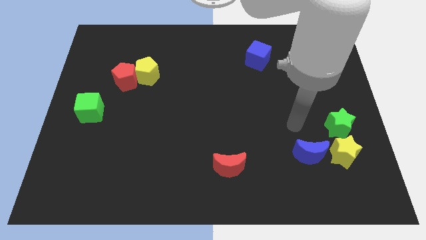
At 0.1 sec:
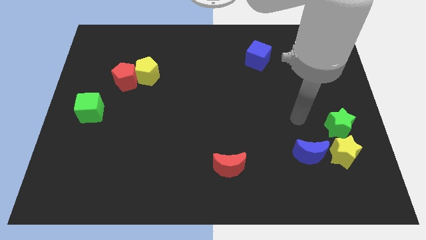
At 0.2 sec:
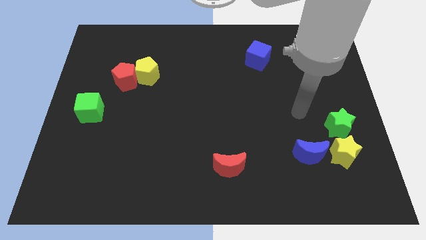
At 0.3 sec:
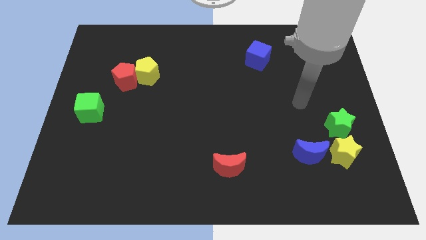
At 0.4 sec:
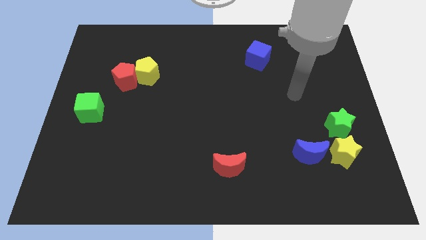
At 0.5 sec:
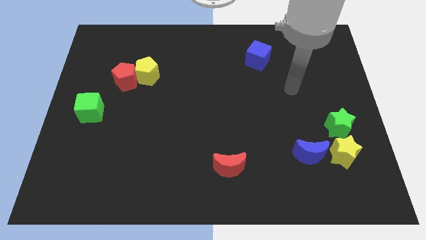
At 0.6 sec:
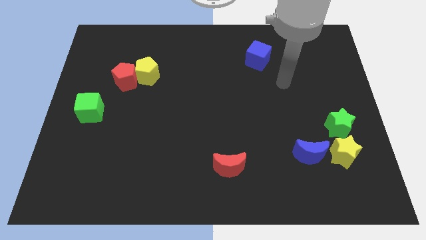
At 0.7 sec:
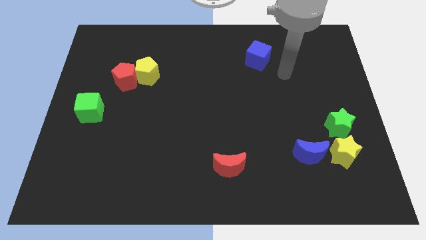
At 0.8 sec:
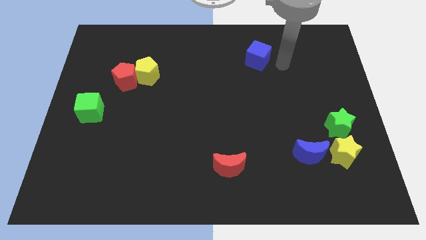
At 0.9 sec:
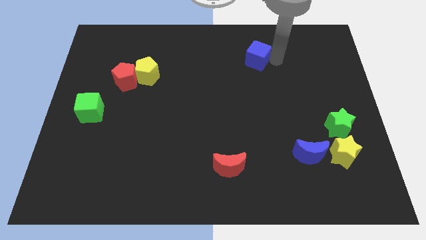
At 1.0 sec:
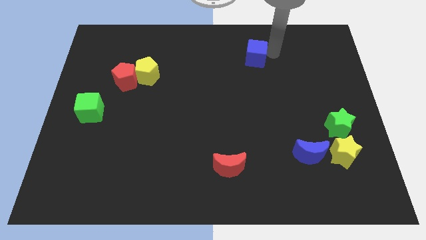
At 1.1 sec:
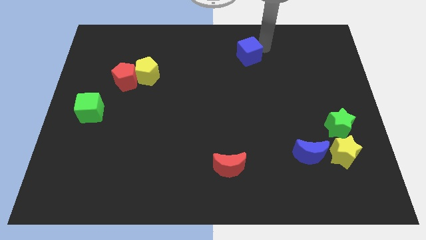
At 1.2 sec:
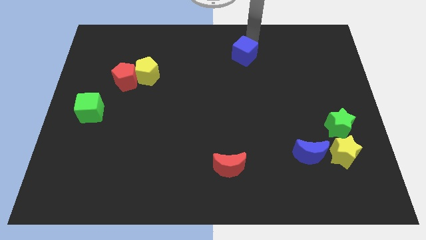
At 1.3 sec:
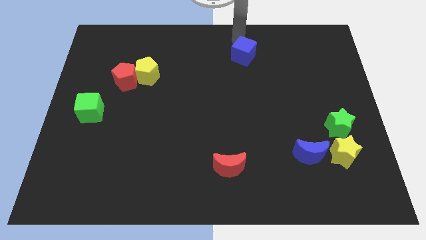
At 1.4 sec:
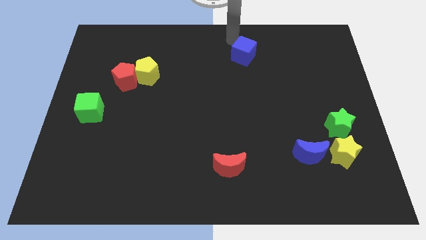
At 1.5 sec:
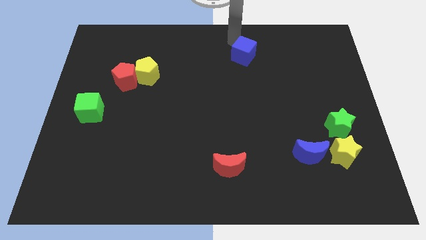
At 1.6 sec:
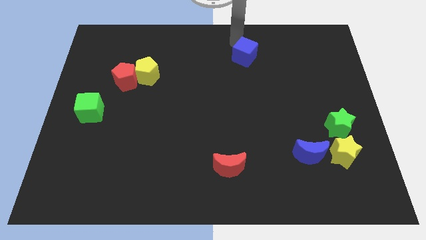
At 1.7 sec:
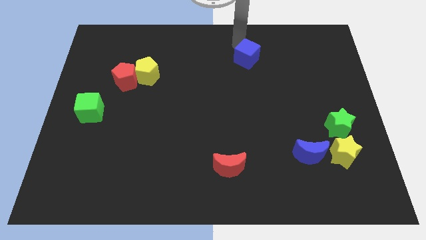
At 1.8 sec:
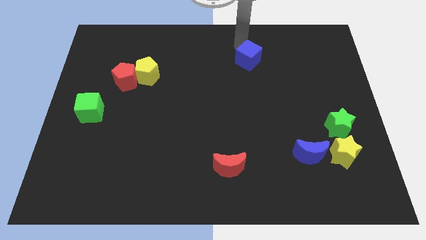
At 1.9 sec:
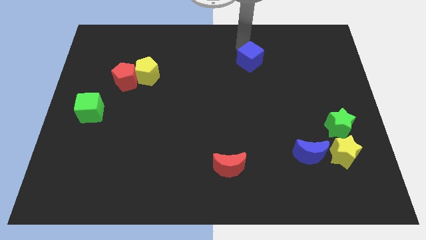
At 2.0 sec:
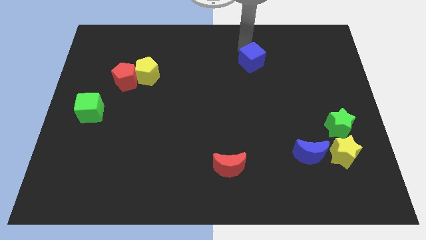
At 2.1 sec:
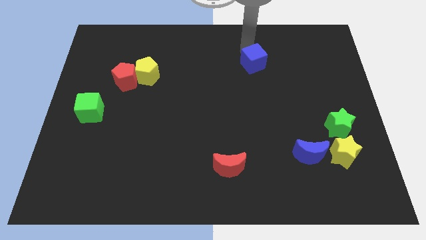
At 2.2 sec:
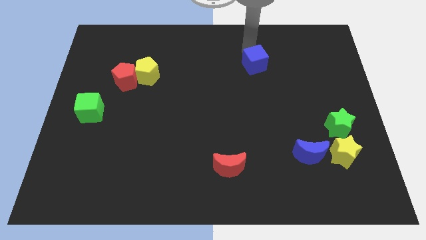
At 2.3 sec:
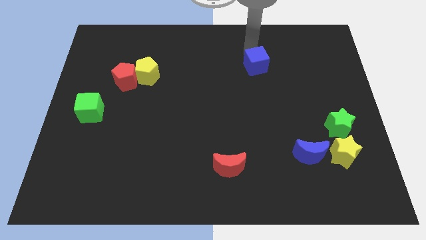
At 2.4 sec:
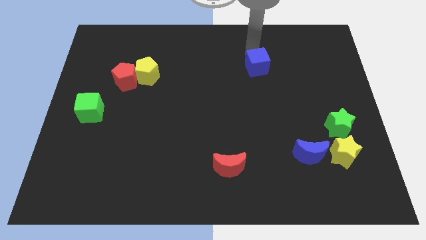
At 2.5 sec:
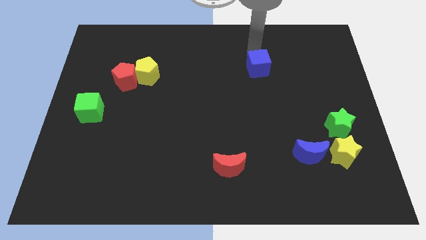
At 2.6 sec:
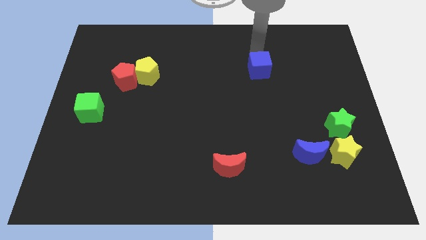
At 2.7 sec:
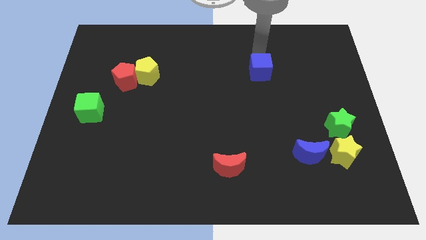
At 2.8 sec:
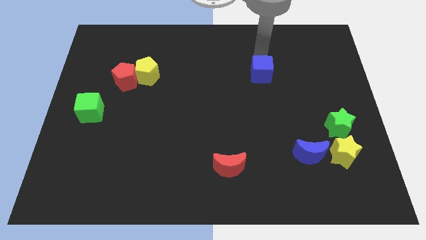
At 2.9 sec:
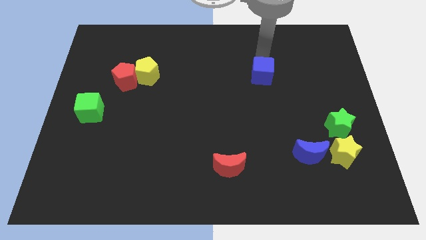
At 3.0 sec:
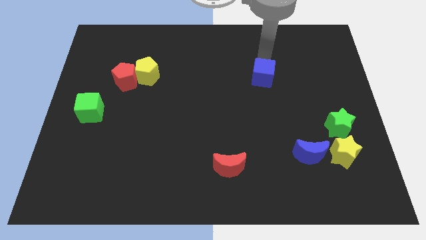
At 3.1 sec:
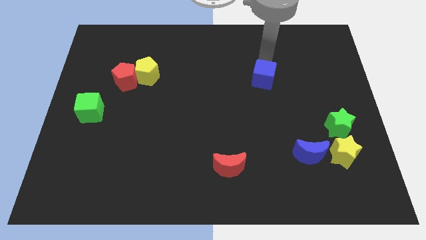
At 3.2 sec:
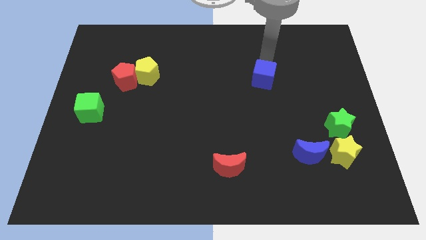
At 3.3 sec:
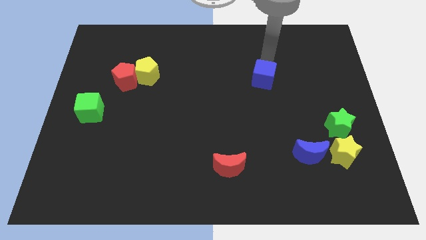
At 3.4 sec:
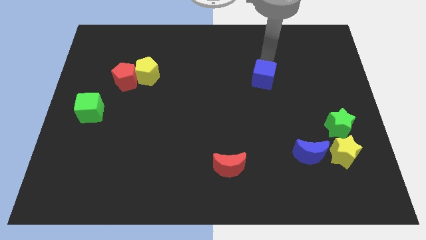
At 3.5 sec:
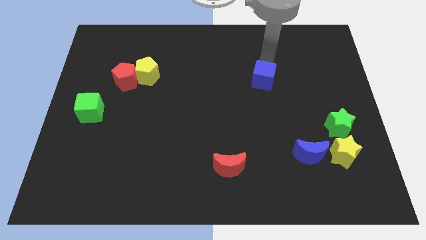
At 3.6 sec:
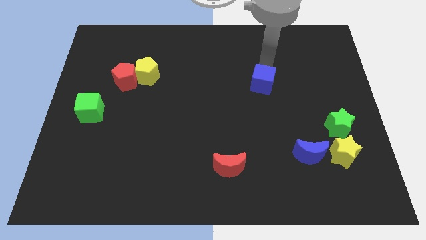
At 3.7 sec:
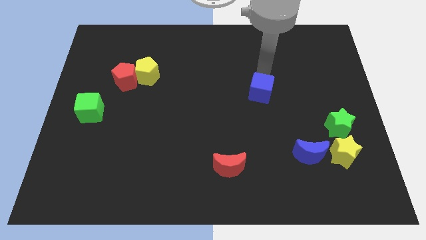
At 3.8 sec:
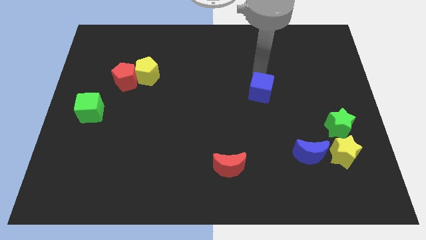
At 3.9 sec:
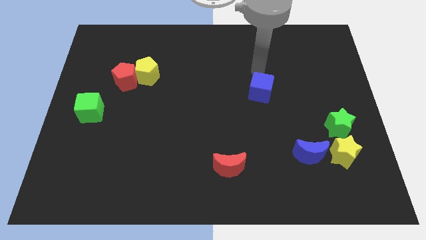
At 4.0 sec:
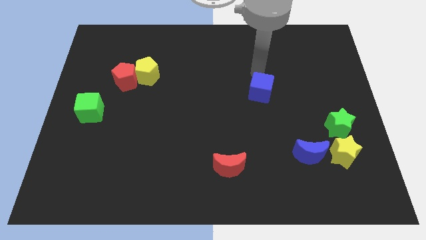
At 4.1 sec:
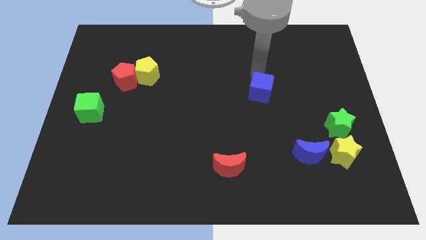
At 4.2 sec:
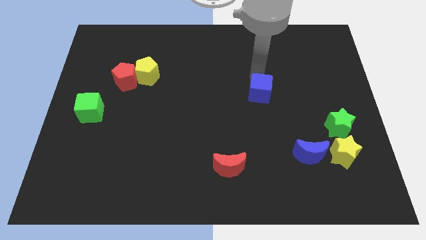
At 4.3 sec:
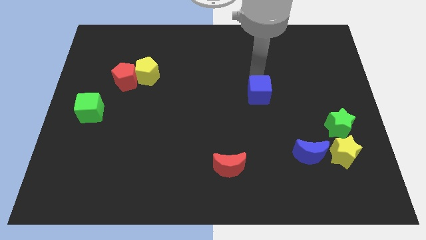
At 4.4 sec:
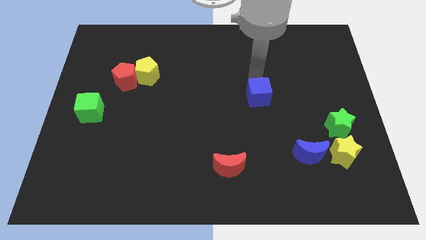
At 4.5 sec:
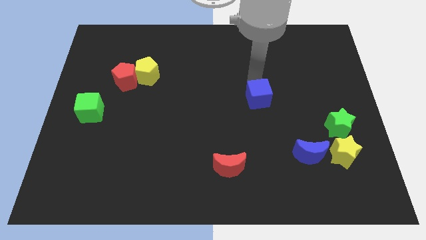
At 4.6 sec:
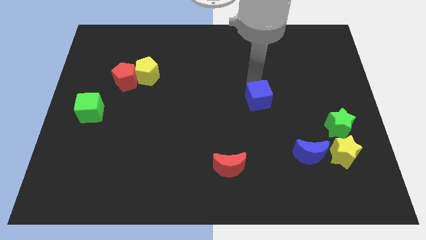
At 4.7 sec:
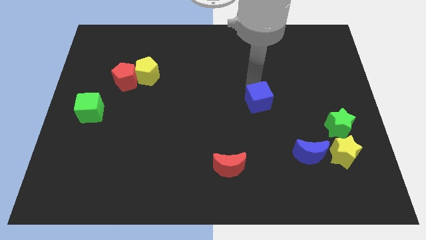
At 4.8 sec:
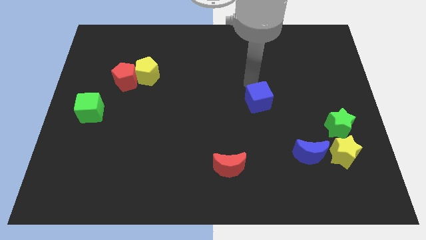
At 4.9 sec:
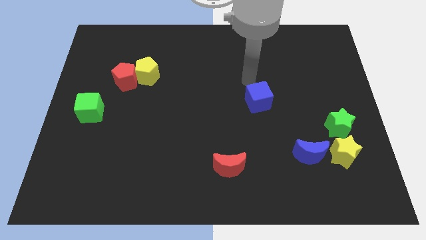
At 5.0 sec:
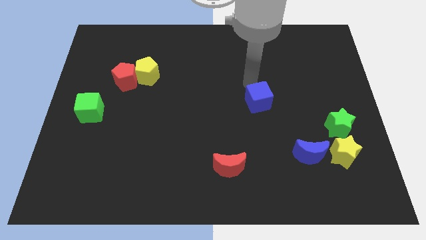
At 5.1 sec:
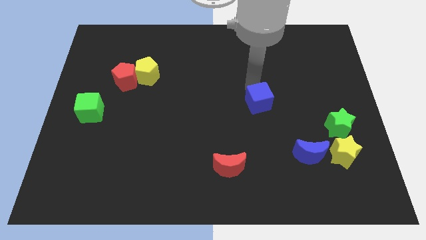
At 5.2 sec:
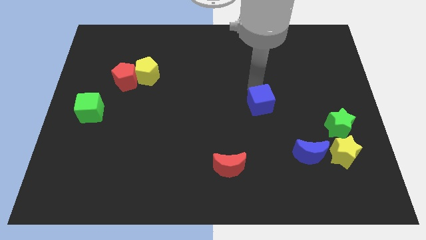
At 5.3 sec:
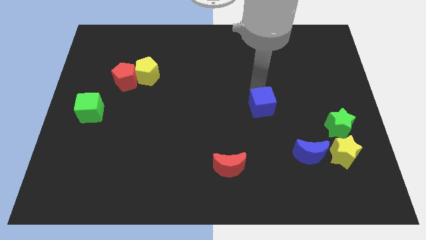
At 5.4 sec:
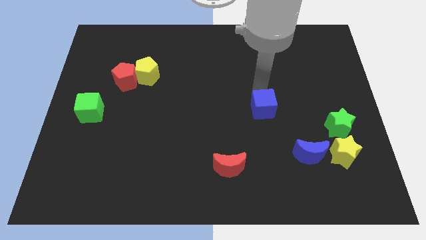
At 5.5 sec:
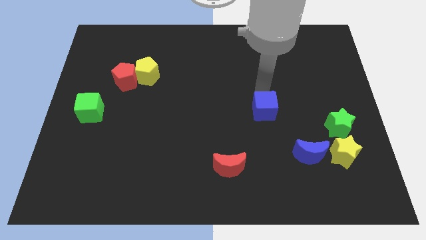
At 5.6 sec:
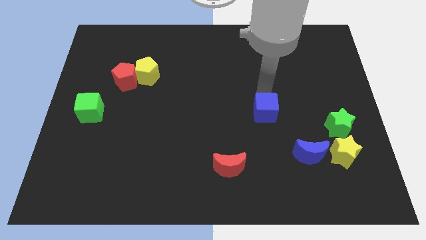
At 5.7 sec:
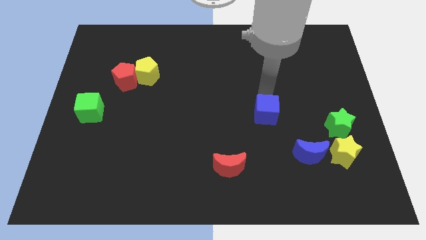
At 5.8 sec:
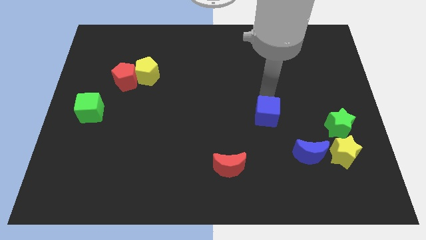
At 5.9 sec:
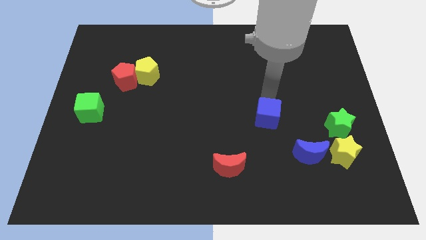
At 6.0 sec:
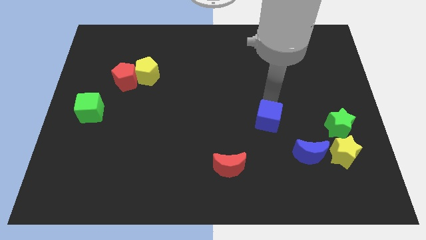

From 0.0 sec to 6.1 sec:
move the blue cube down

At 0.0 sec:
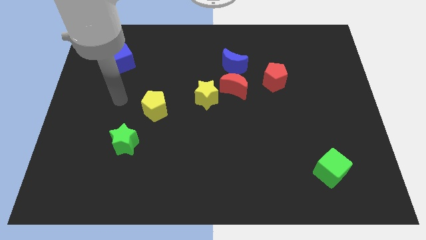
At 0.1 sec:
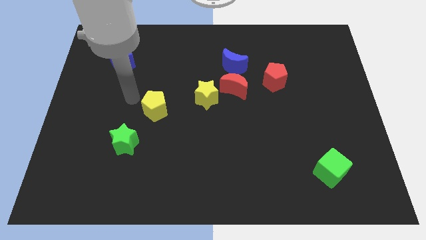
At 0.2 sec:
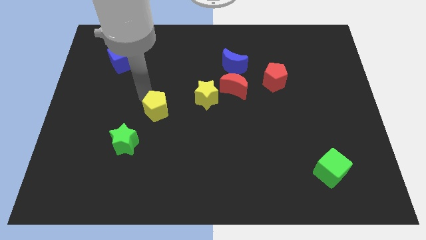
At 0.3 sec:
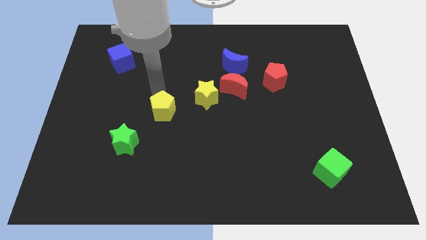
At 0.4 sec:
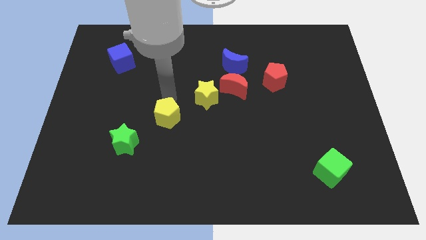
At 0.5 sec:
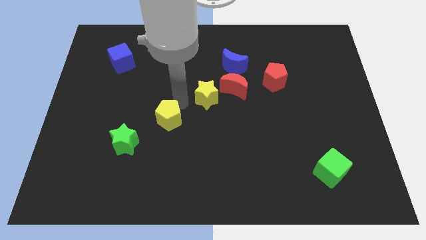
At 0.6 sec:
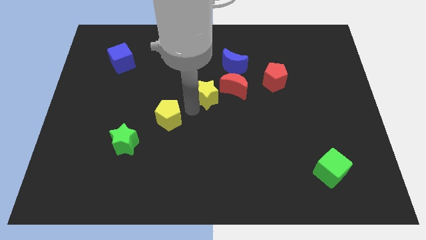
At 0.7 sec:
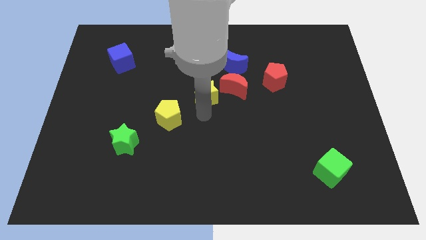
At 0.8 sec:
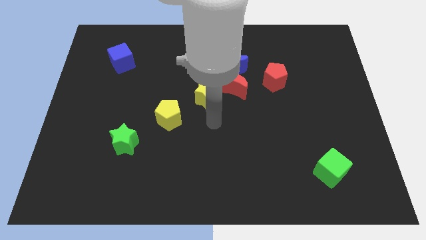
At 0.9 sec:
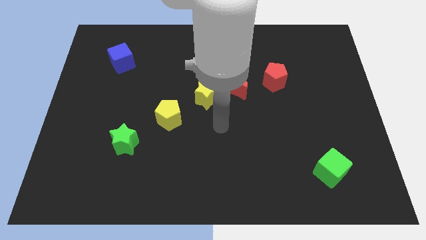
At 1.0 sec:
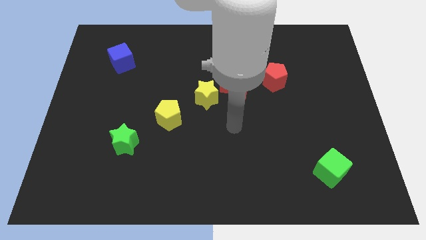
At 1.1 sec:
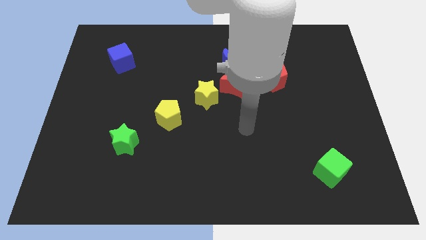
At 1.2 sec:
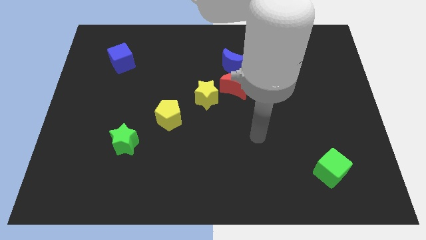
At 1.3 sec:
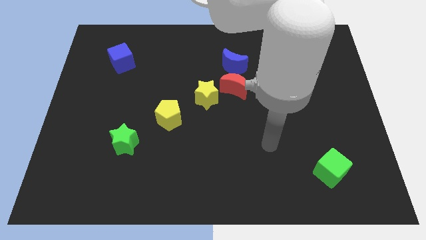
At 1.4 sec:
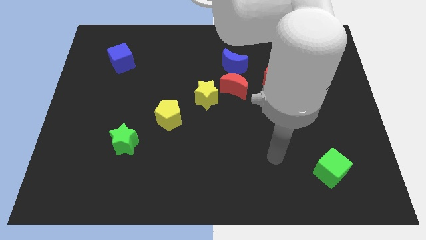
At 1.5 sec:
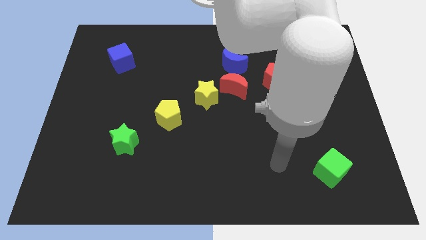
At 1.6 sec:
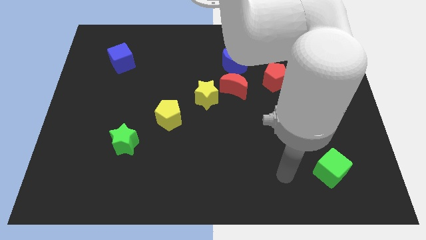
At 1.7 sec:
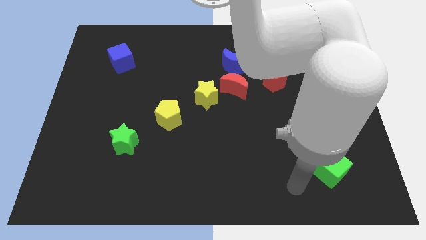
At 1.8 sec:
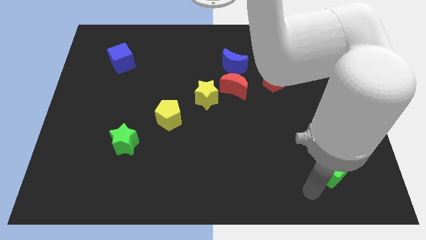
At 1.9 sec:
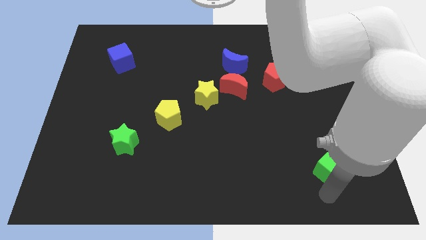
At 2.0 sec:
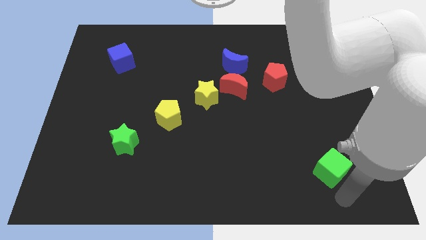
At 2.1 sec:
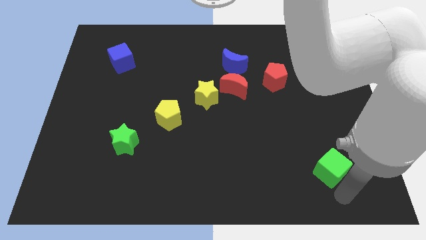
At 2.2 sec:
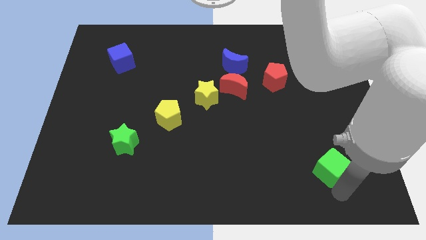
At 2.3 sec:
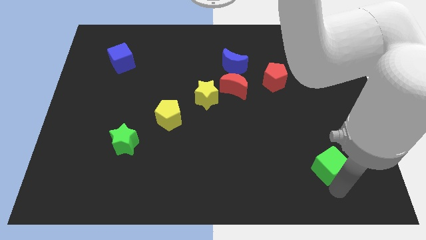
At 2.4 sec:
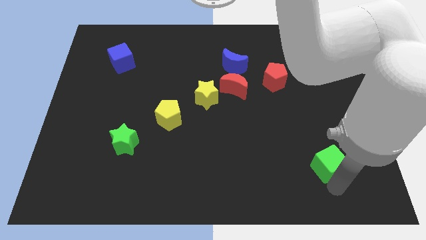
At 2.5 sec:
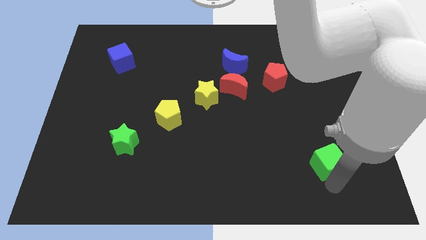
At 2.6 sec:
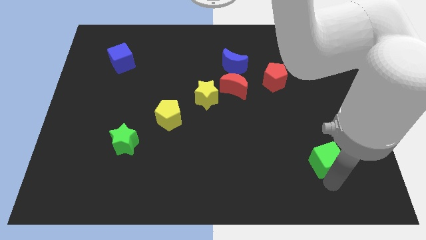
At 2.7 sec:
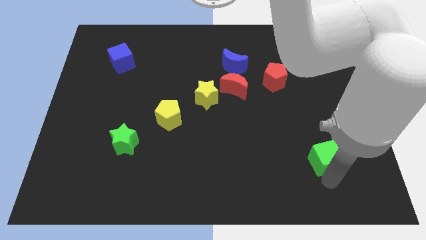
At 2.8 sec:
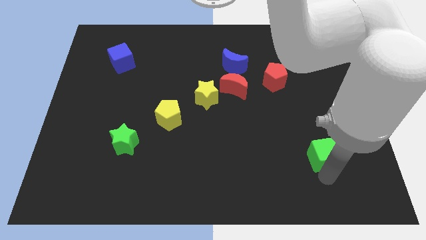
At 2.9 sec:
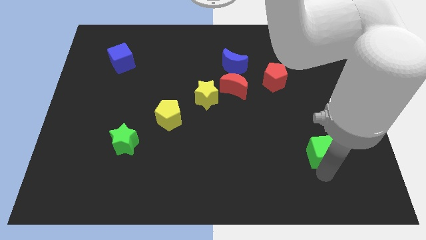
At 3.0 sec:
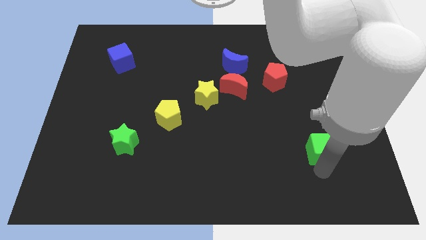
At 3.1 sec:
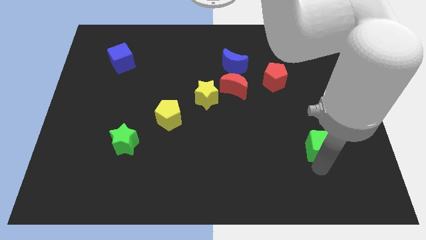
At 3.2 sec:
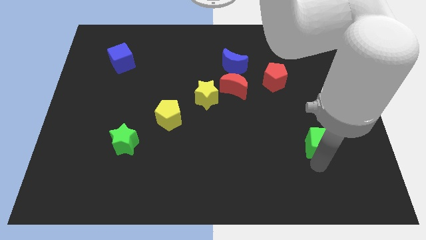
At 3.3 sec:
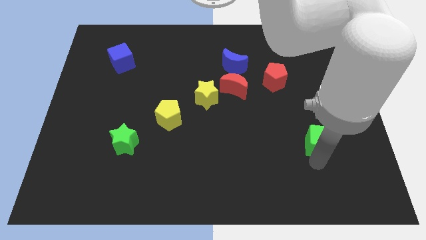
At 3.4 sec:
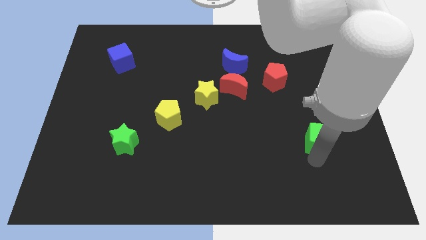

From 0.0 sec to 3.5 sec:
slide the green cube a little up
